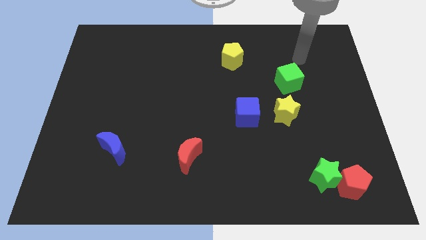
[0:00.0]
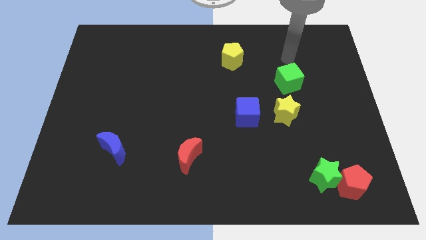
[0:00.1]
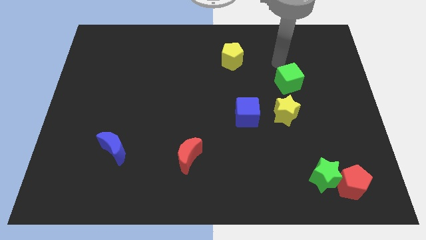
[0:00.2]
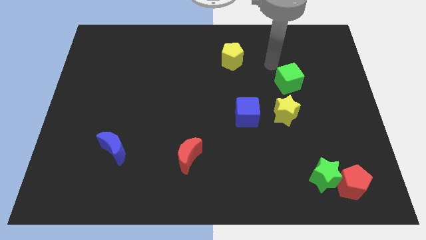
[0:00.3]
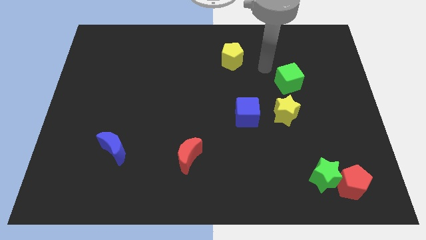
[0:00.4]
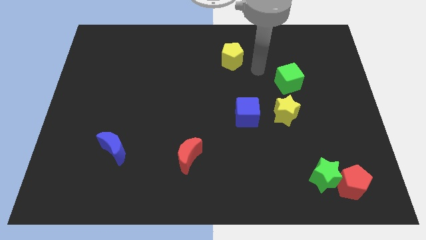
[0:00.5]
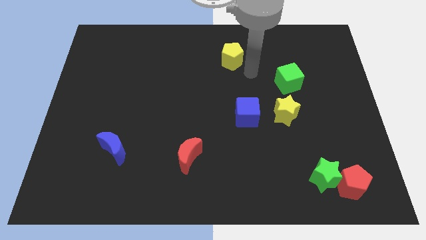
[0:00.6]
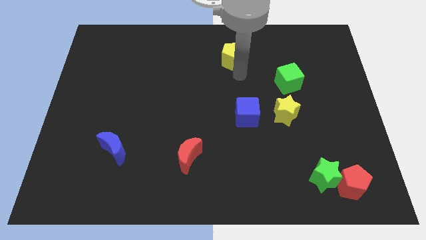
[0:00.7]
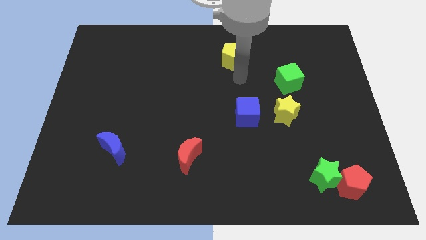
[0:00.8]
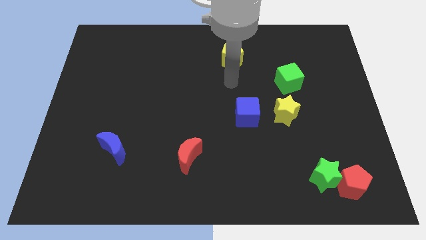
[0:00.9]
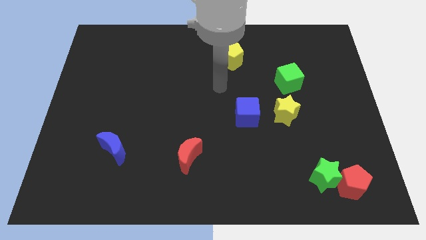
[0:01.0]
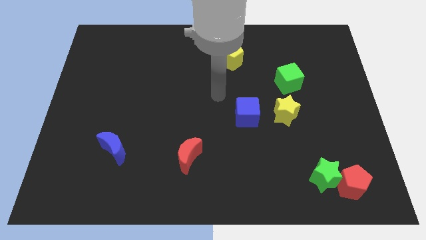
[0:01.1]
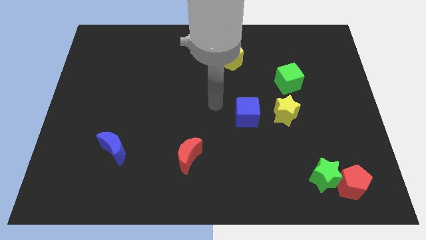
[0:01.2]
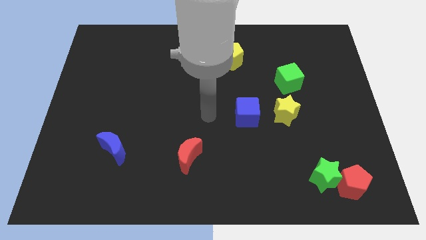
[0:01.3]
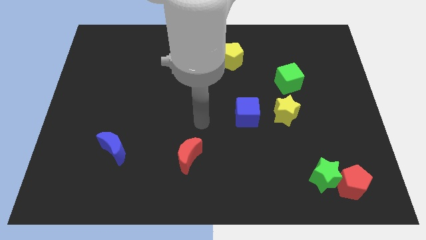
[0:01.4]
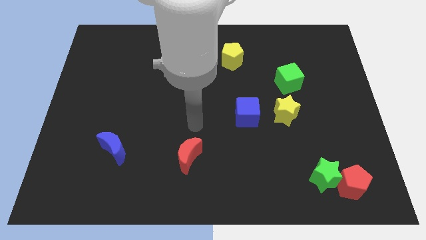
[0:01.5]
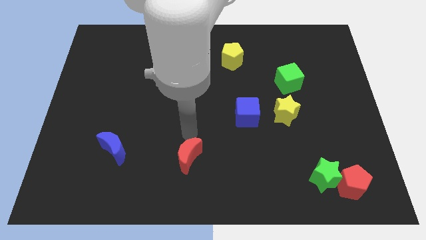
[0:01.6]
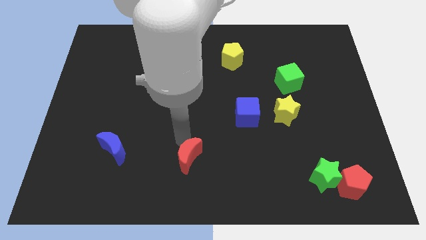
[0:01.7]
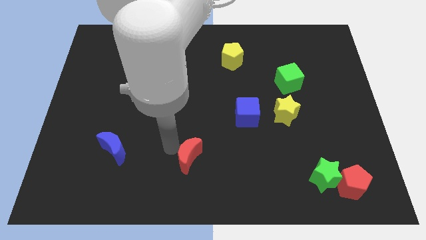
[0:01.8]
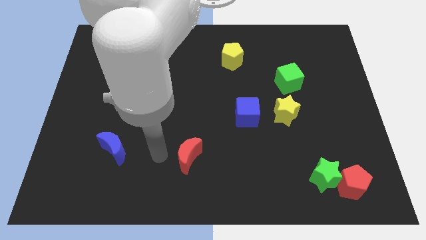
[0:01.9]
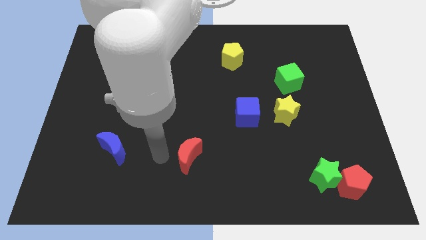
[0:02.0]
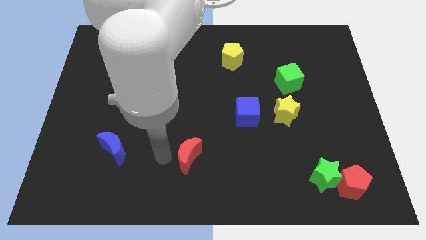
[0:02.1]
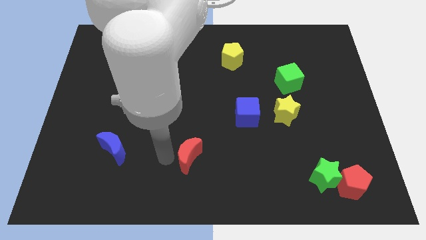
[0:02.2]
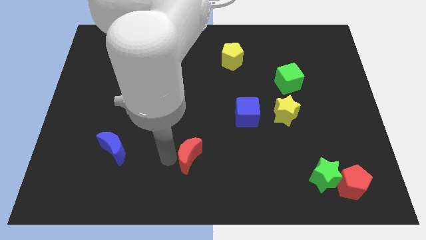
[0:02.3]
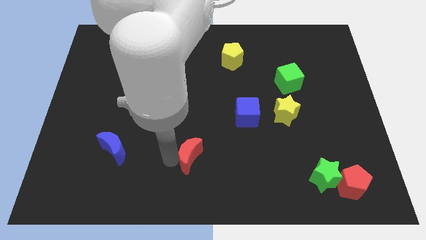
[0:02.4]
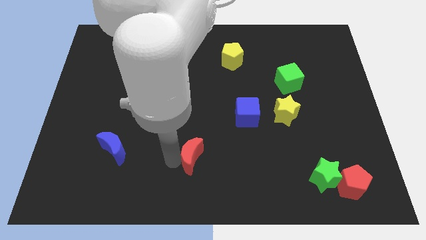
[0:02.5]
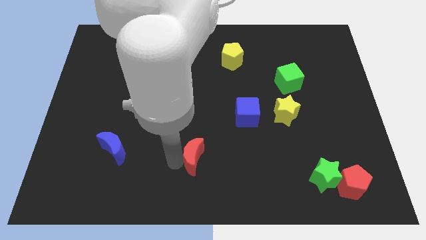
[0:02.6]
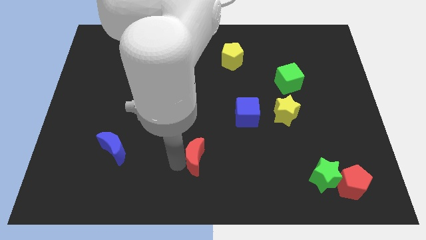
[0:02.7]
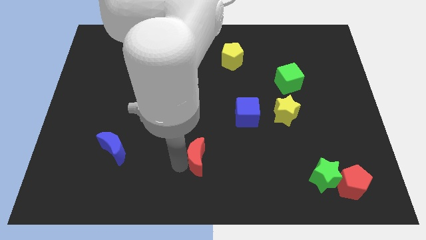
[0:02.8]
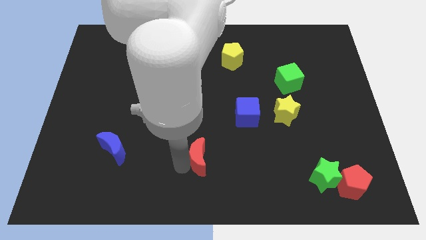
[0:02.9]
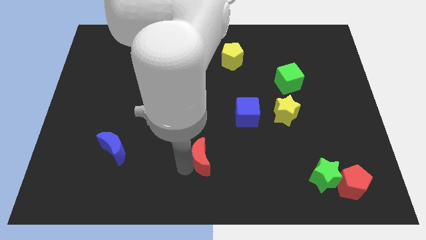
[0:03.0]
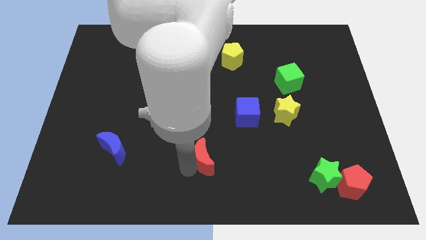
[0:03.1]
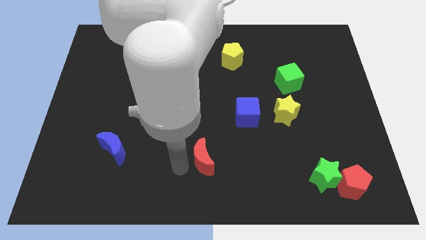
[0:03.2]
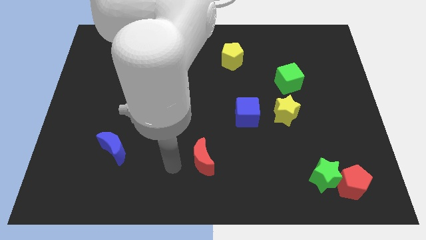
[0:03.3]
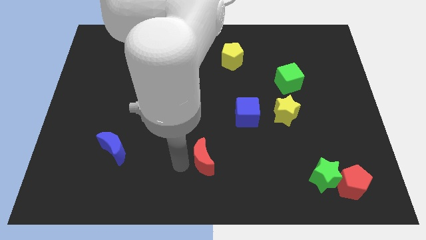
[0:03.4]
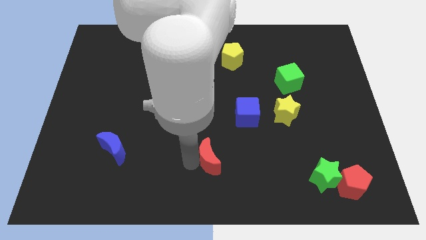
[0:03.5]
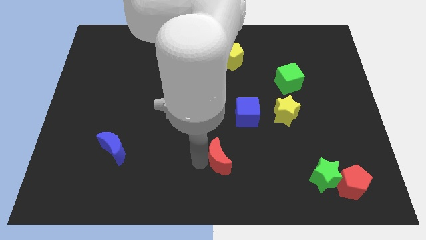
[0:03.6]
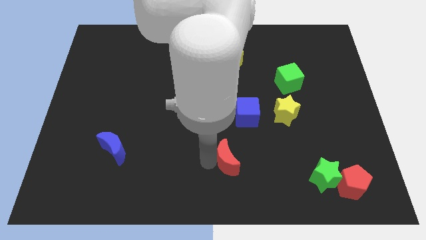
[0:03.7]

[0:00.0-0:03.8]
slide the red moon slightly to the right

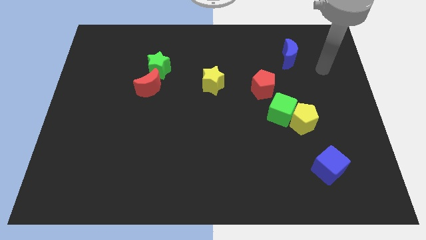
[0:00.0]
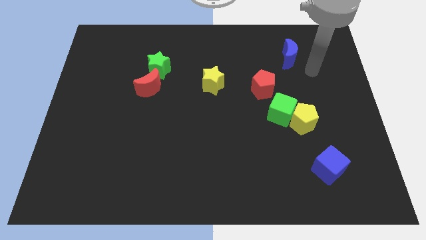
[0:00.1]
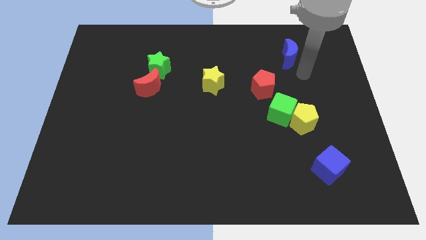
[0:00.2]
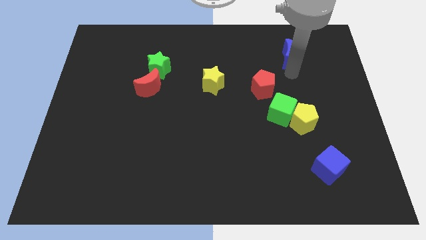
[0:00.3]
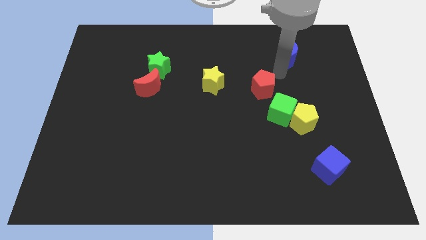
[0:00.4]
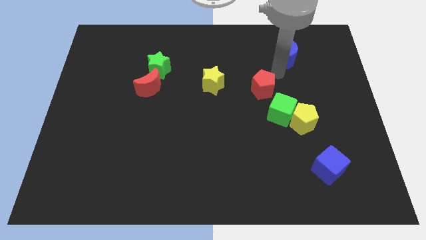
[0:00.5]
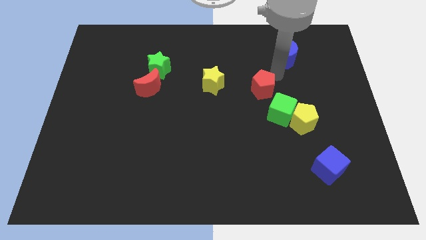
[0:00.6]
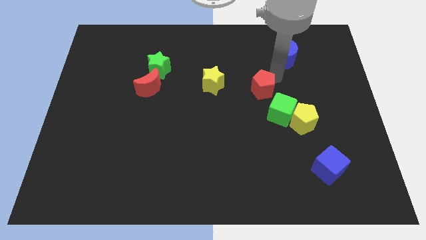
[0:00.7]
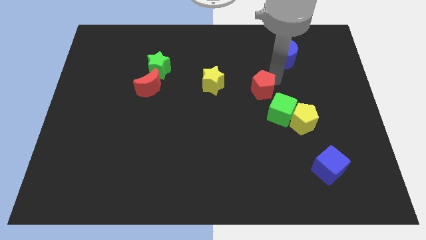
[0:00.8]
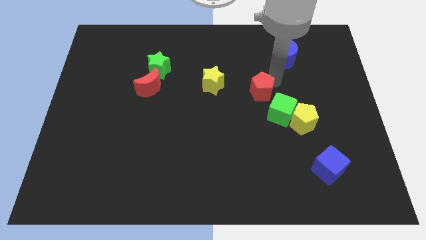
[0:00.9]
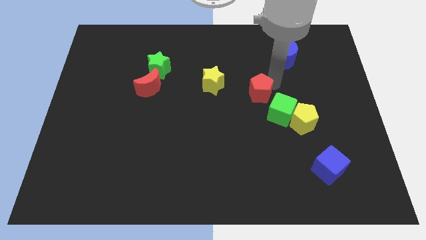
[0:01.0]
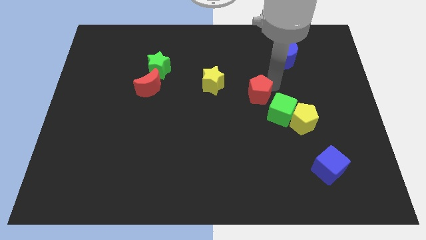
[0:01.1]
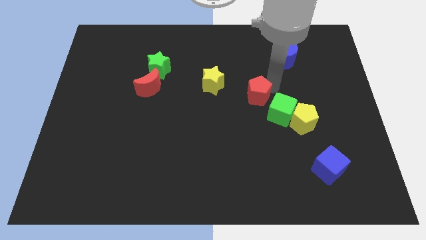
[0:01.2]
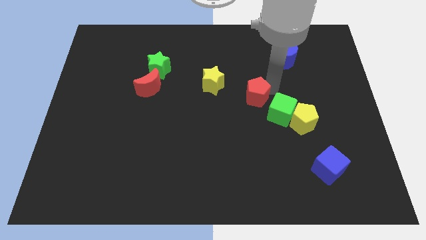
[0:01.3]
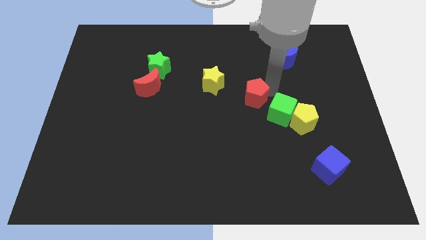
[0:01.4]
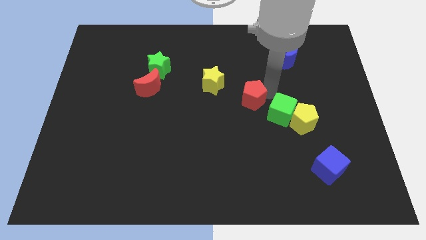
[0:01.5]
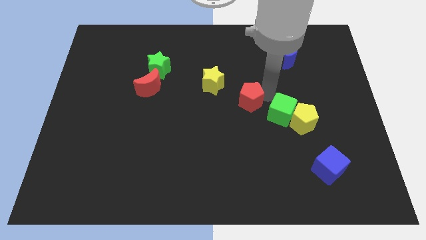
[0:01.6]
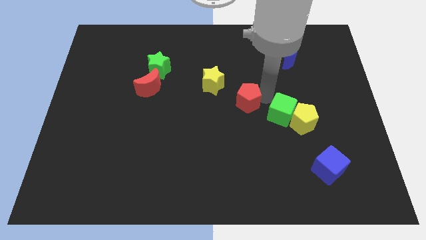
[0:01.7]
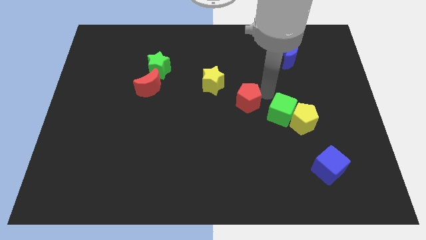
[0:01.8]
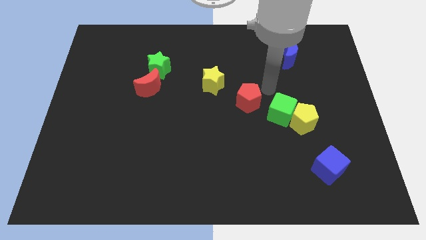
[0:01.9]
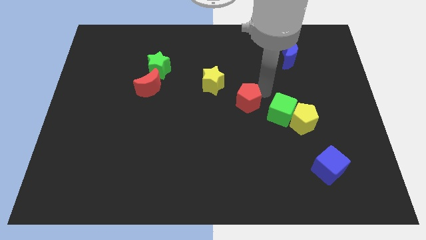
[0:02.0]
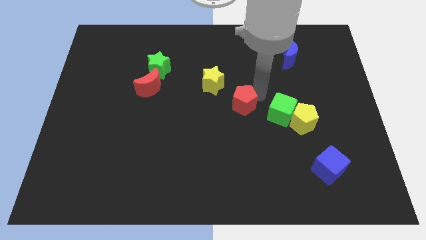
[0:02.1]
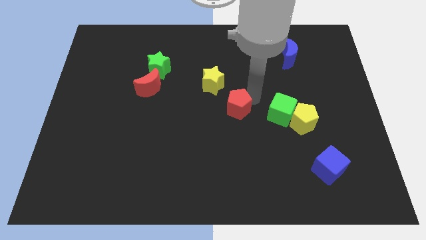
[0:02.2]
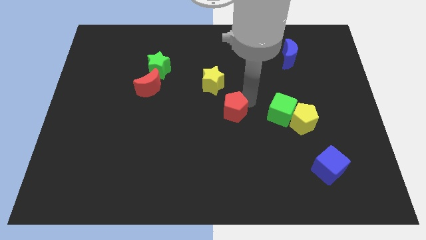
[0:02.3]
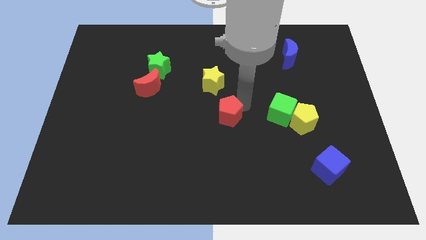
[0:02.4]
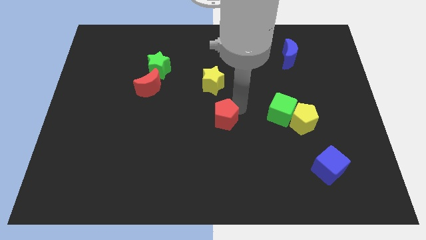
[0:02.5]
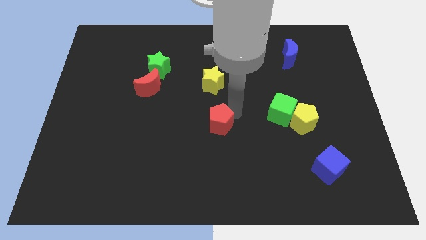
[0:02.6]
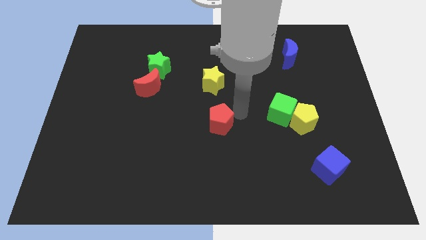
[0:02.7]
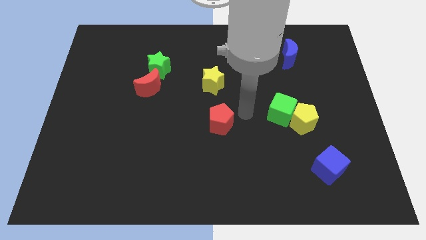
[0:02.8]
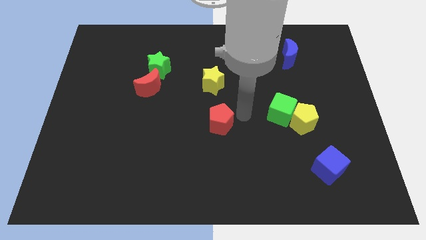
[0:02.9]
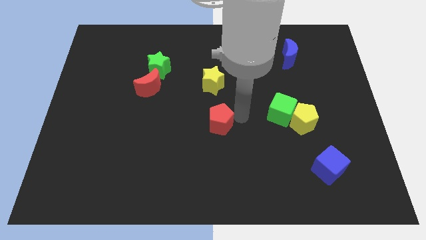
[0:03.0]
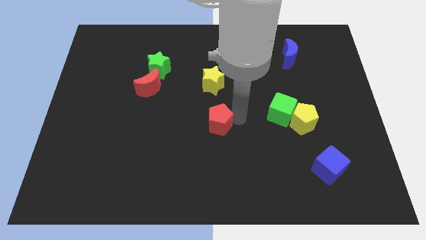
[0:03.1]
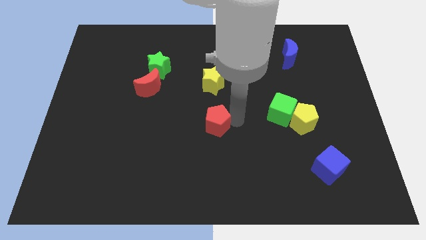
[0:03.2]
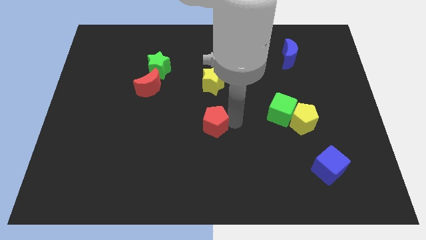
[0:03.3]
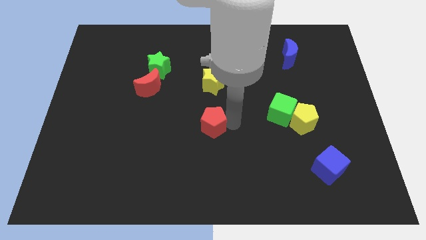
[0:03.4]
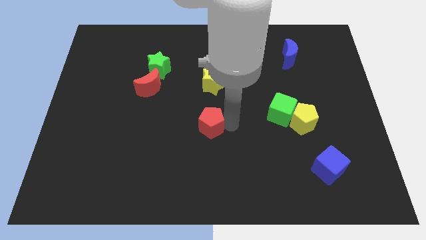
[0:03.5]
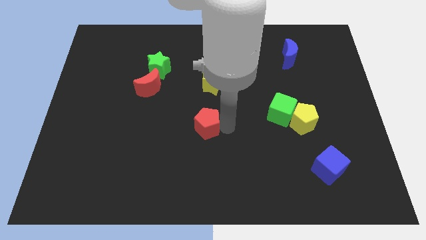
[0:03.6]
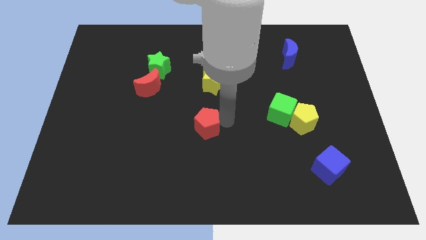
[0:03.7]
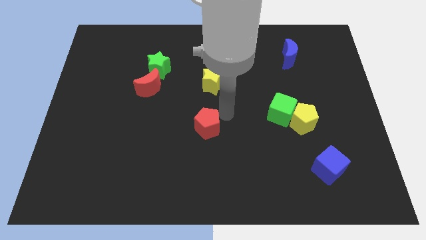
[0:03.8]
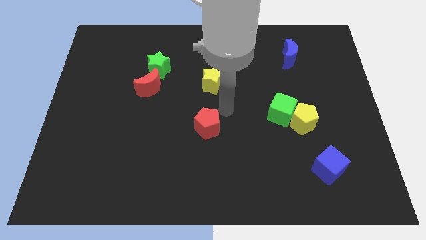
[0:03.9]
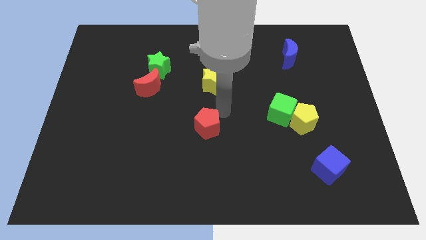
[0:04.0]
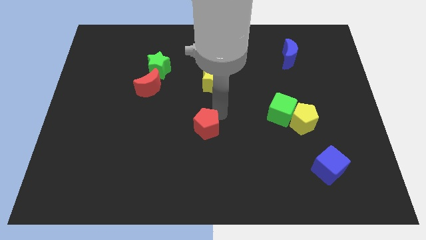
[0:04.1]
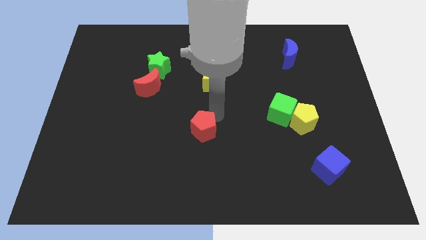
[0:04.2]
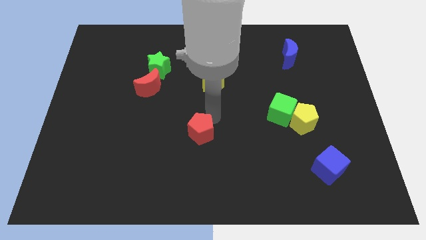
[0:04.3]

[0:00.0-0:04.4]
move the red pentagon diagonally downwards and to the left
